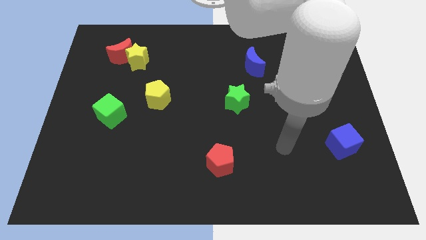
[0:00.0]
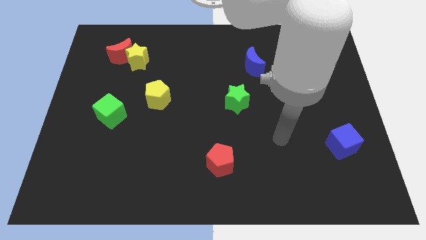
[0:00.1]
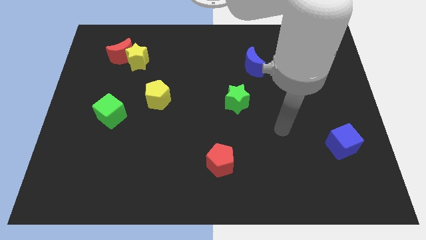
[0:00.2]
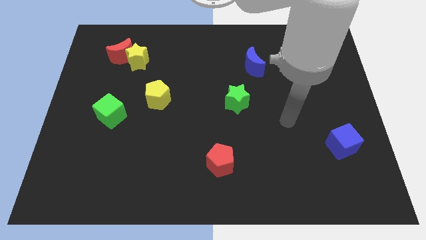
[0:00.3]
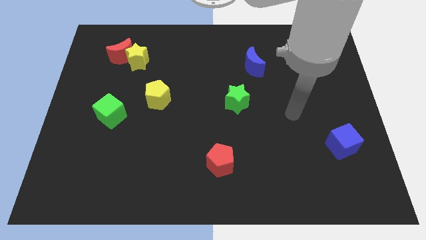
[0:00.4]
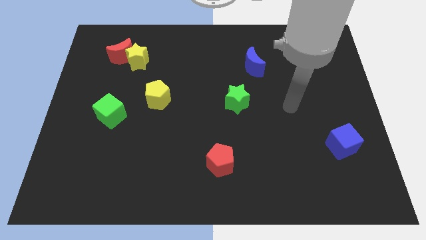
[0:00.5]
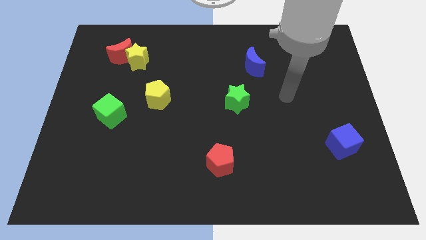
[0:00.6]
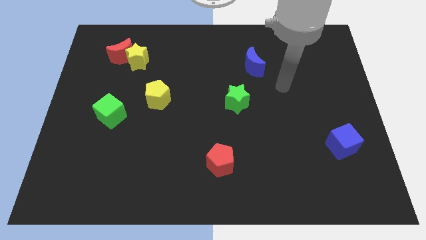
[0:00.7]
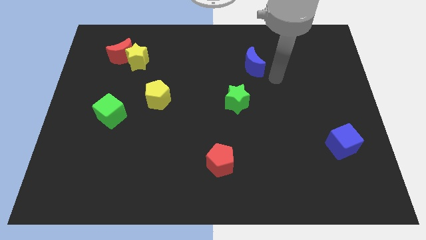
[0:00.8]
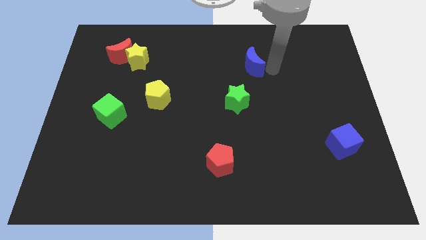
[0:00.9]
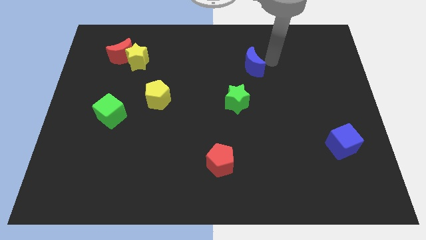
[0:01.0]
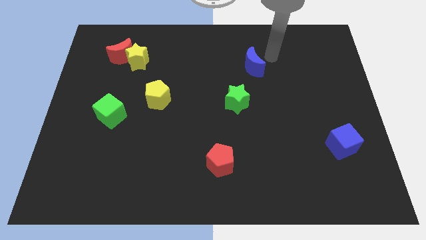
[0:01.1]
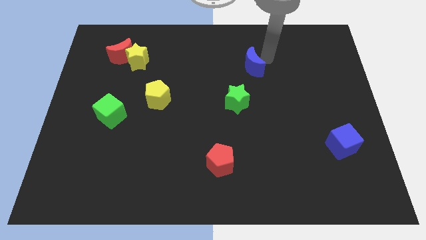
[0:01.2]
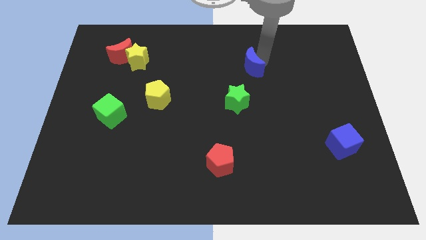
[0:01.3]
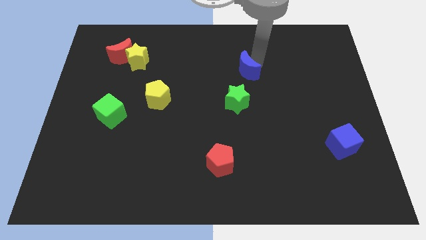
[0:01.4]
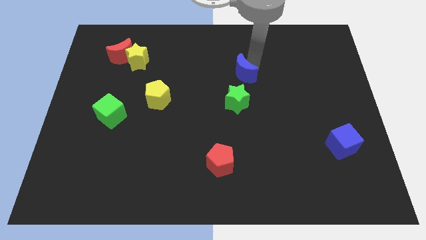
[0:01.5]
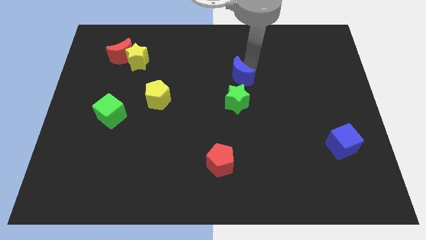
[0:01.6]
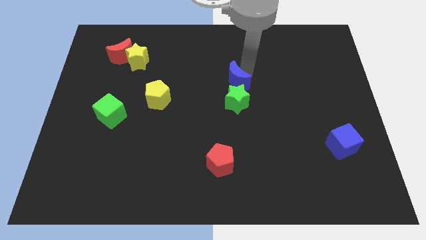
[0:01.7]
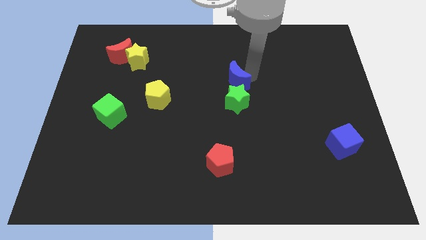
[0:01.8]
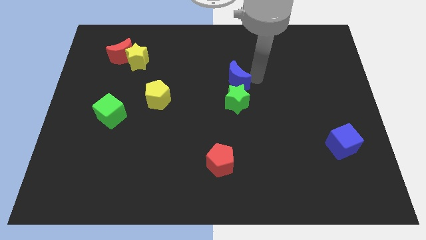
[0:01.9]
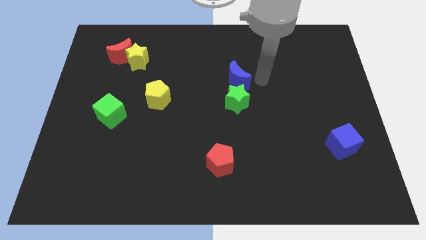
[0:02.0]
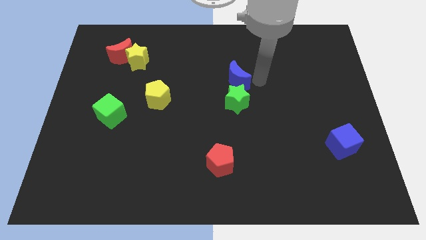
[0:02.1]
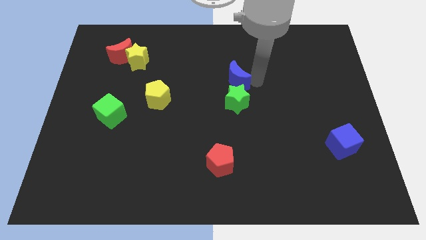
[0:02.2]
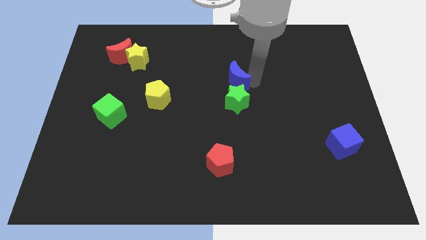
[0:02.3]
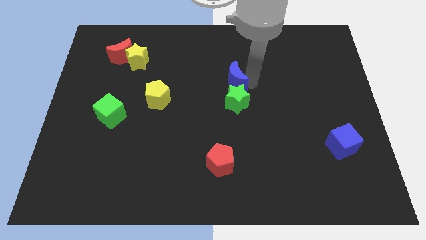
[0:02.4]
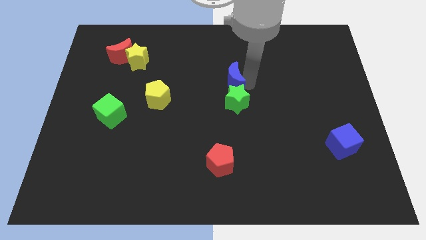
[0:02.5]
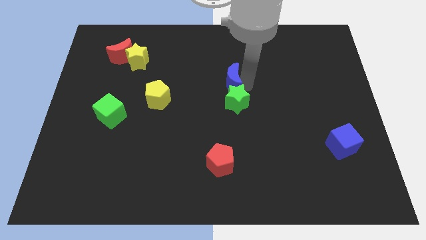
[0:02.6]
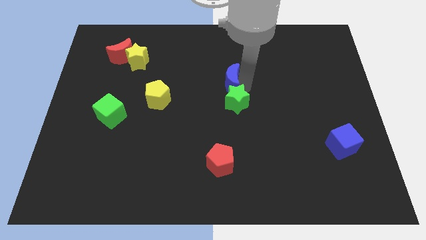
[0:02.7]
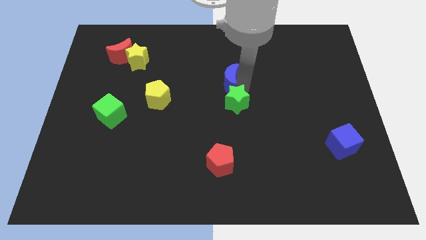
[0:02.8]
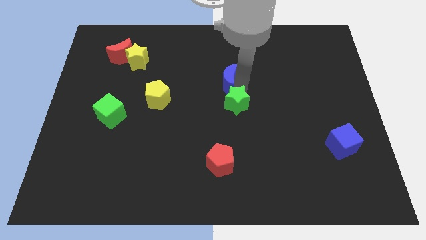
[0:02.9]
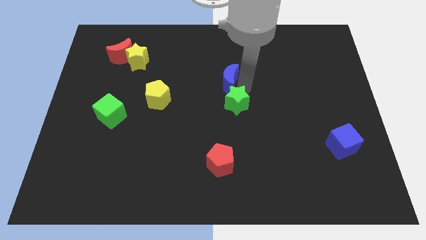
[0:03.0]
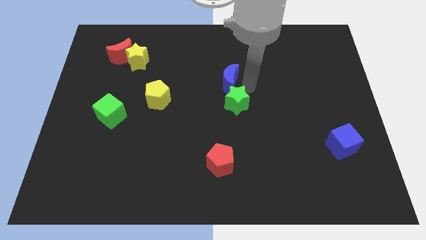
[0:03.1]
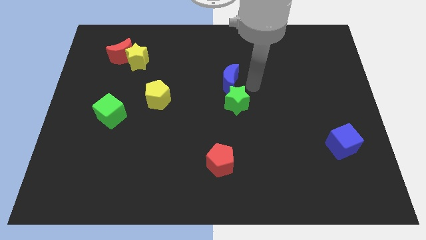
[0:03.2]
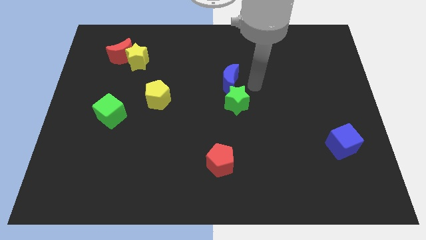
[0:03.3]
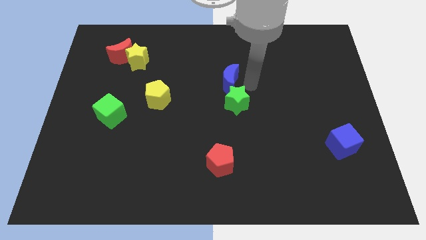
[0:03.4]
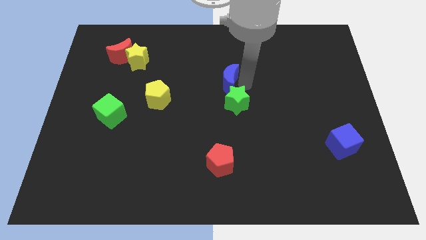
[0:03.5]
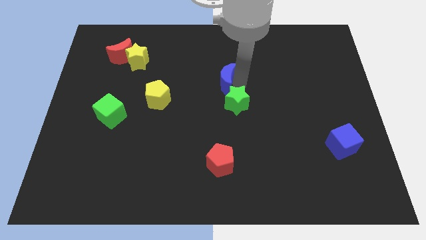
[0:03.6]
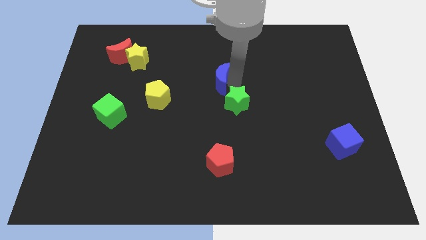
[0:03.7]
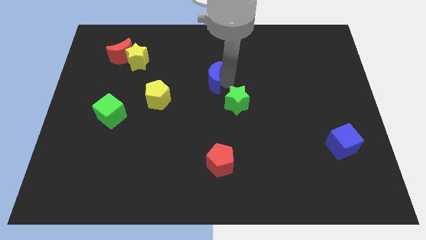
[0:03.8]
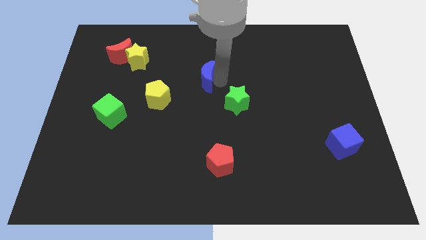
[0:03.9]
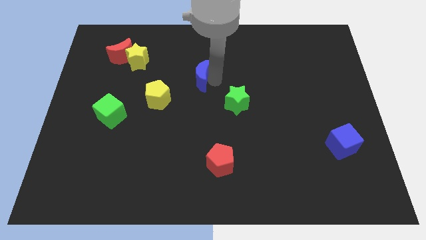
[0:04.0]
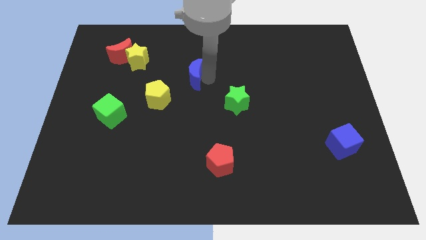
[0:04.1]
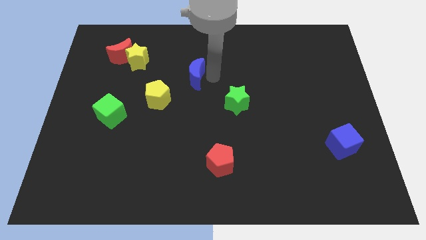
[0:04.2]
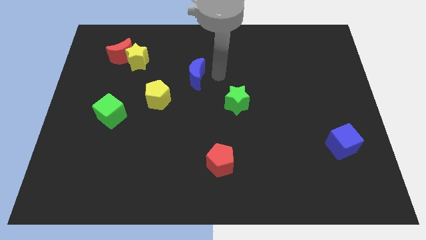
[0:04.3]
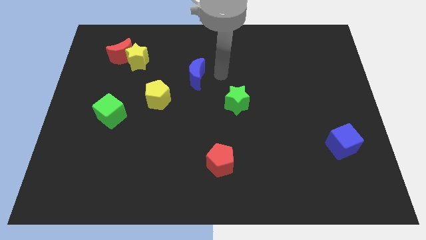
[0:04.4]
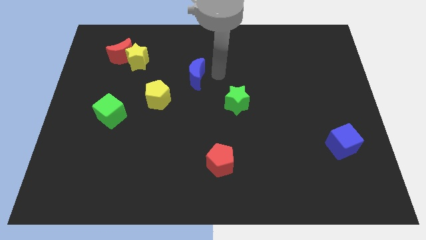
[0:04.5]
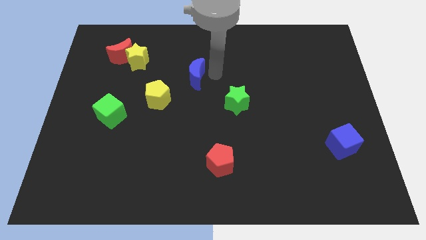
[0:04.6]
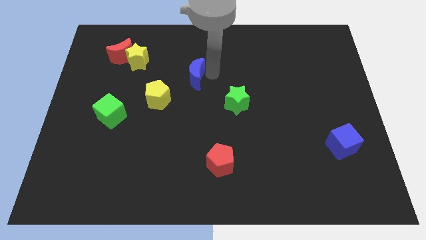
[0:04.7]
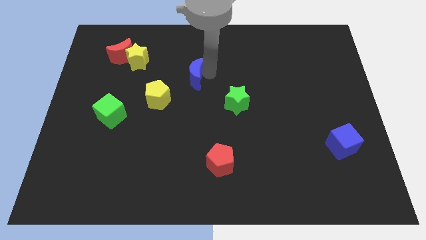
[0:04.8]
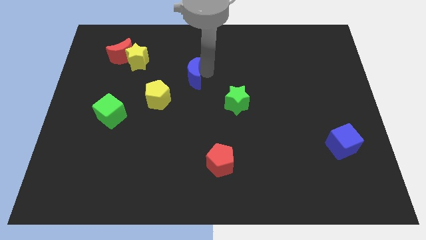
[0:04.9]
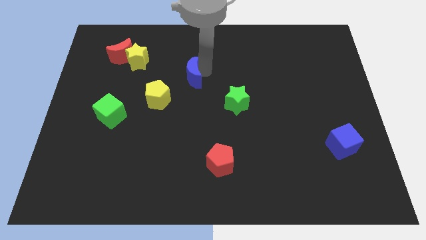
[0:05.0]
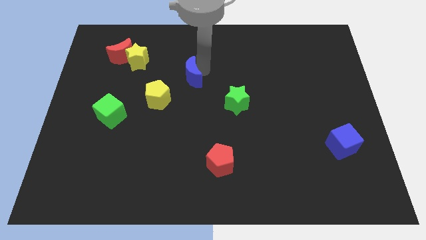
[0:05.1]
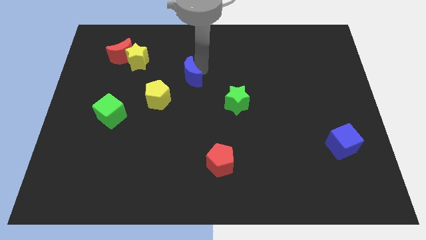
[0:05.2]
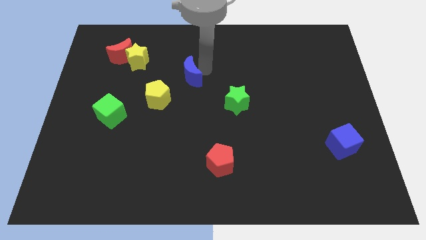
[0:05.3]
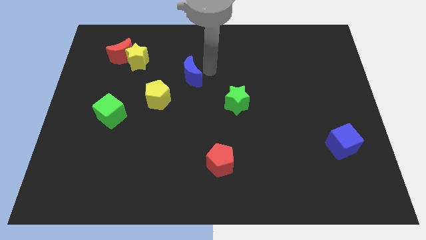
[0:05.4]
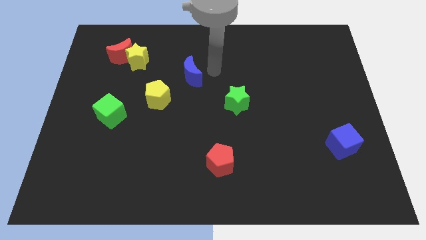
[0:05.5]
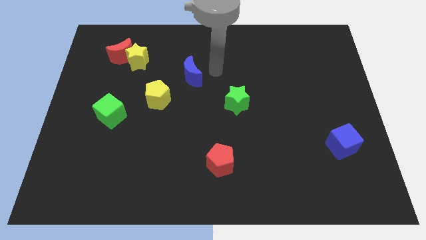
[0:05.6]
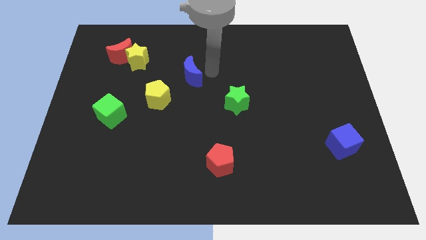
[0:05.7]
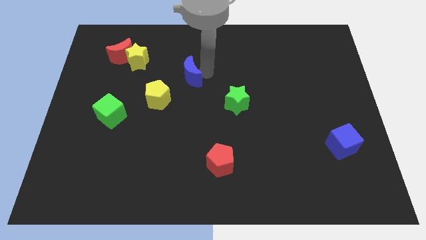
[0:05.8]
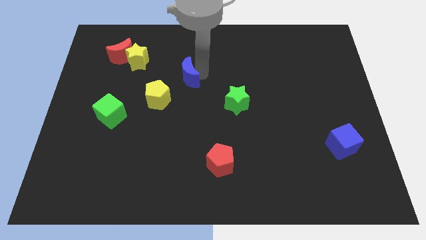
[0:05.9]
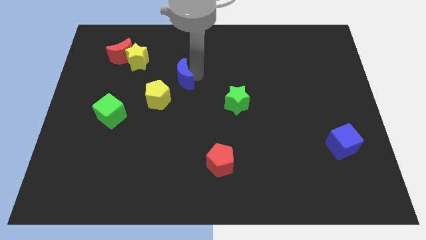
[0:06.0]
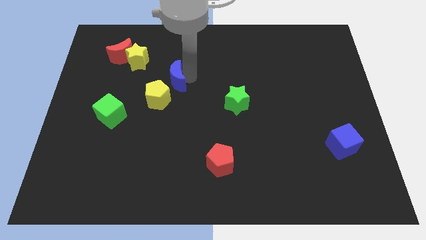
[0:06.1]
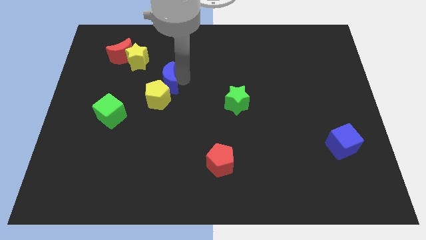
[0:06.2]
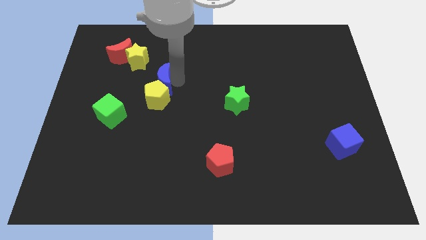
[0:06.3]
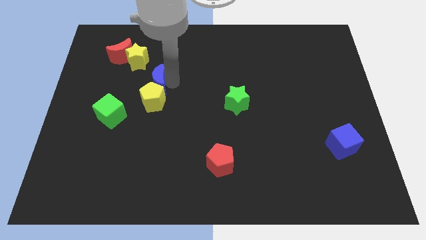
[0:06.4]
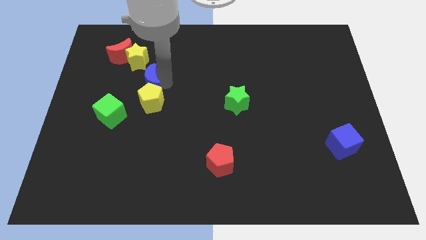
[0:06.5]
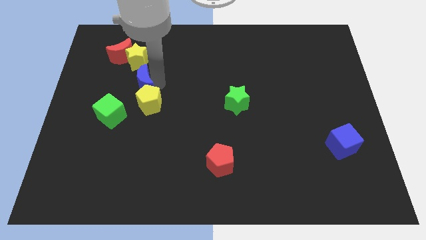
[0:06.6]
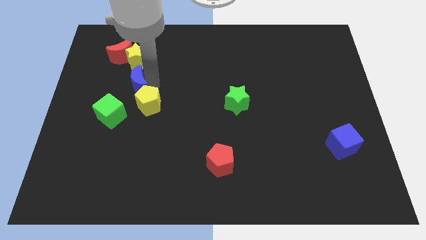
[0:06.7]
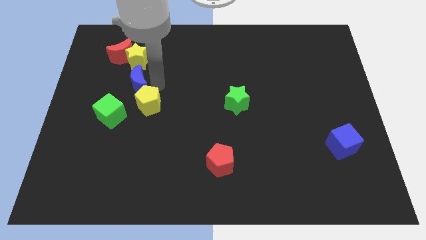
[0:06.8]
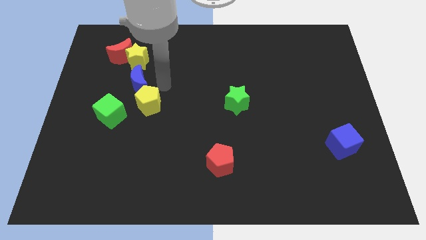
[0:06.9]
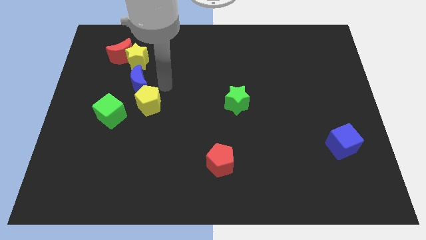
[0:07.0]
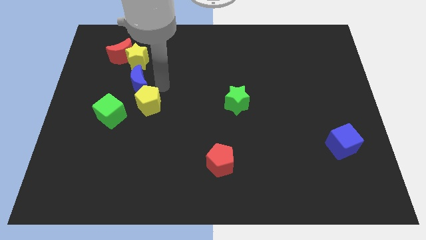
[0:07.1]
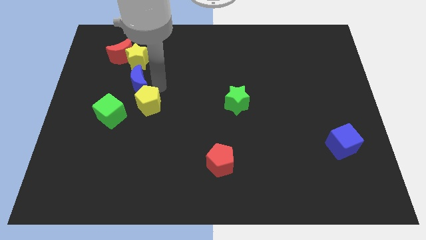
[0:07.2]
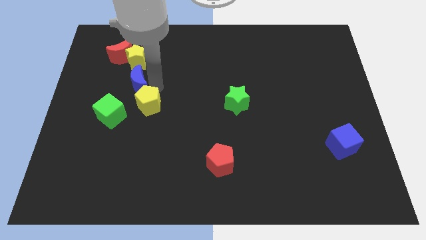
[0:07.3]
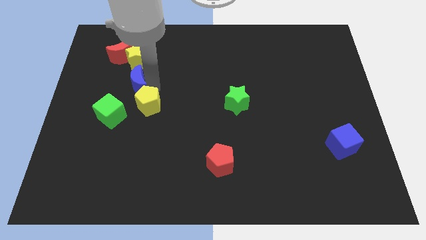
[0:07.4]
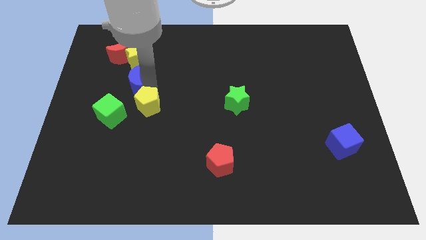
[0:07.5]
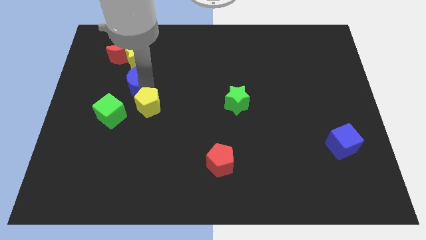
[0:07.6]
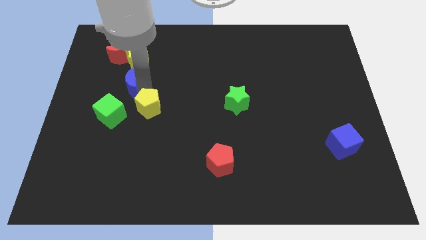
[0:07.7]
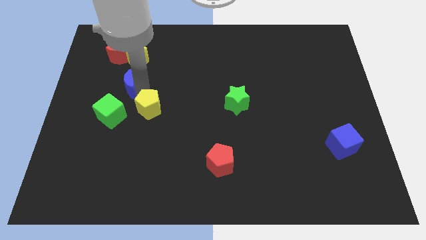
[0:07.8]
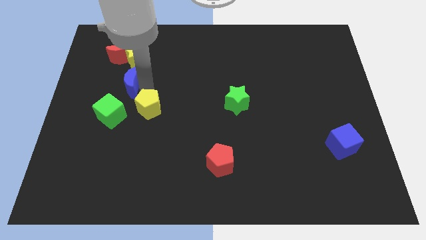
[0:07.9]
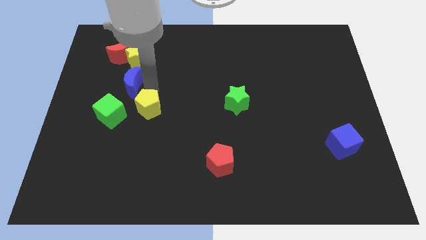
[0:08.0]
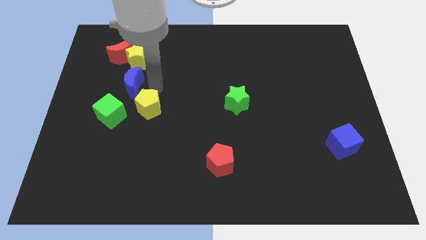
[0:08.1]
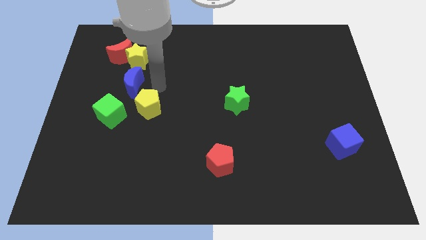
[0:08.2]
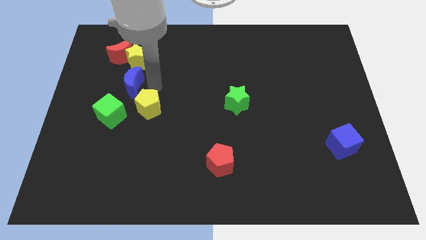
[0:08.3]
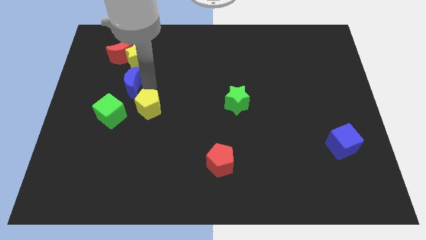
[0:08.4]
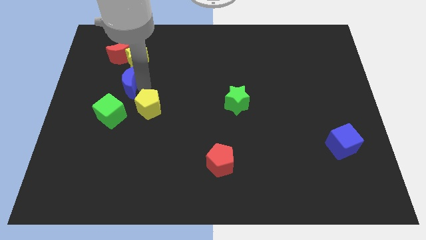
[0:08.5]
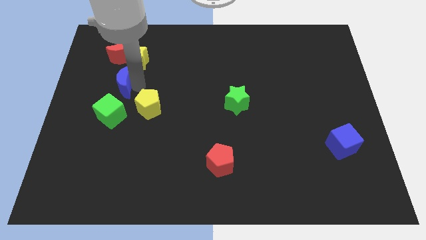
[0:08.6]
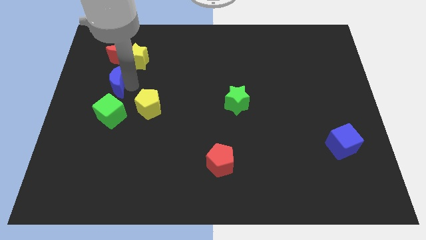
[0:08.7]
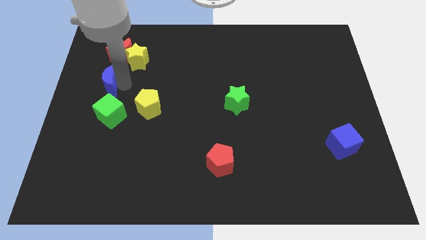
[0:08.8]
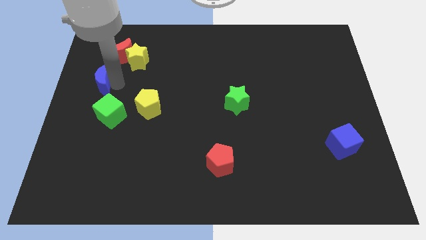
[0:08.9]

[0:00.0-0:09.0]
slide the blue moon to the left side of the board
